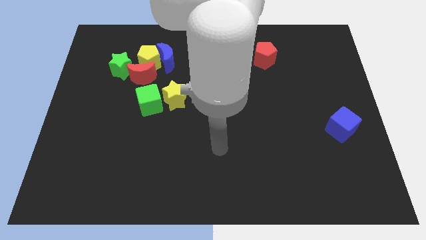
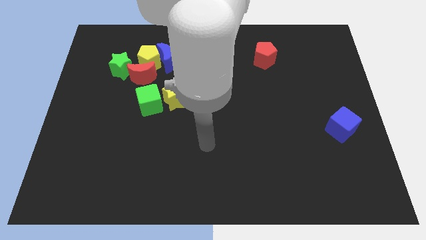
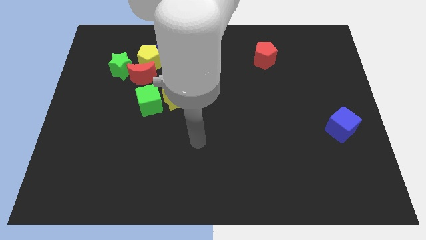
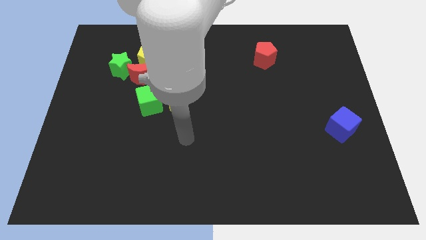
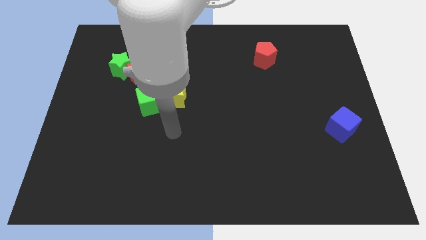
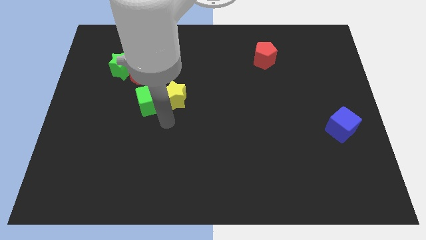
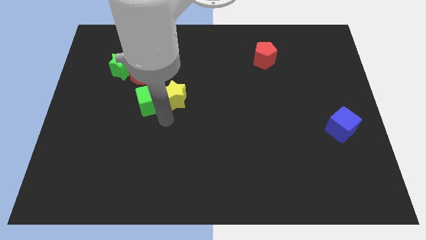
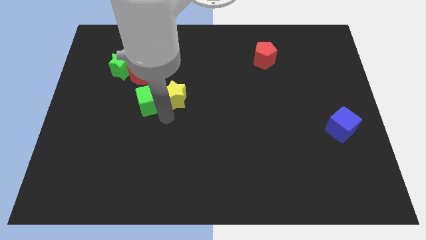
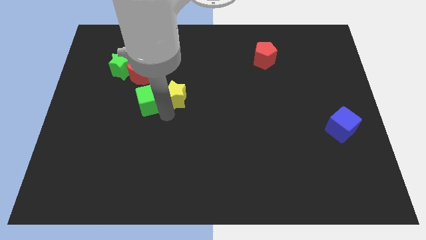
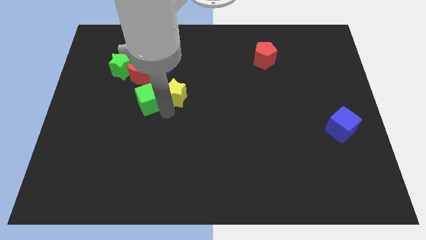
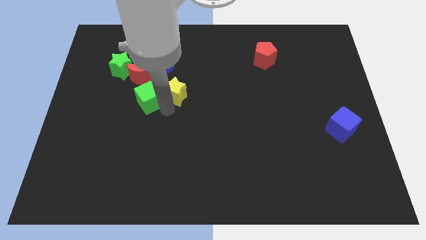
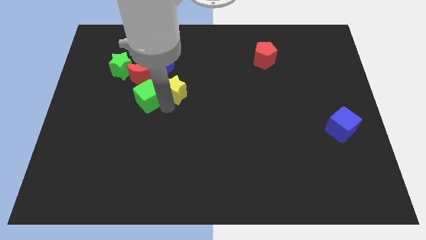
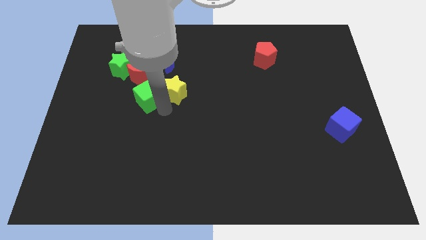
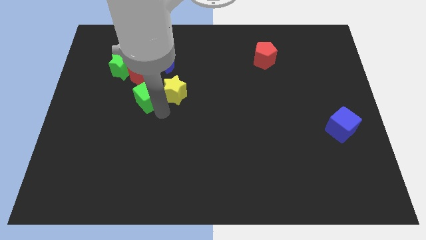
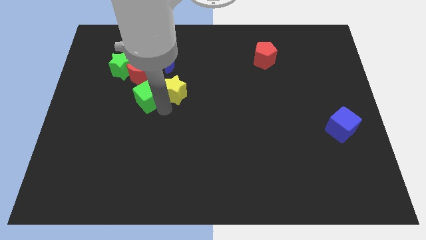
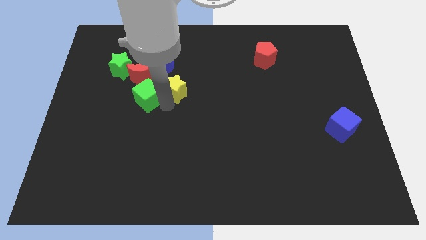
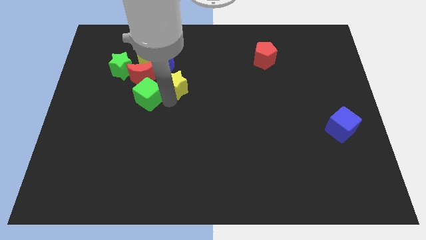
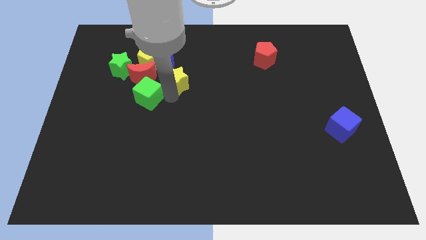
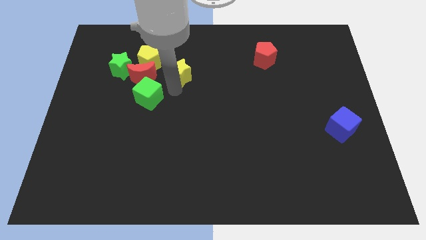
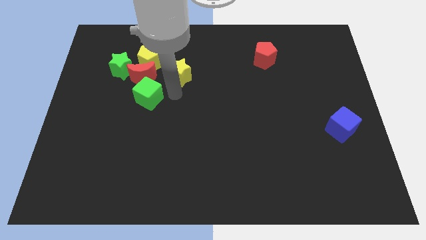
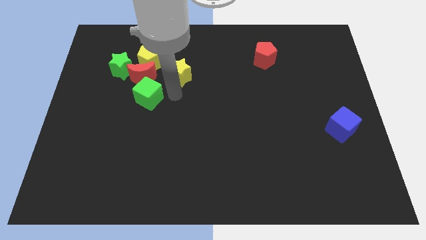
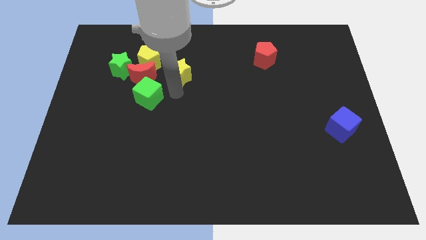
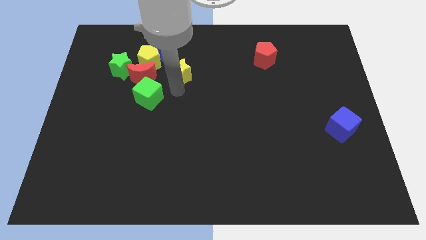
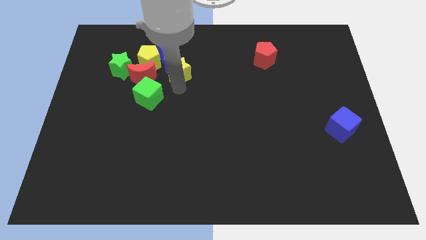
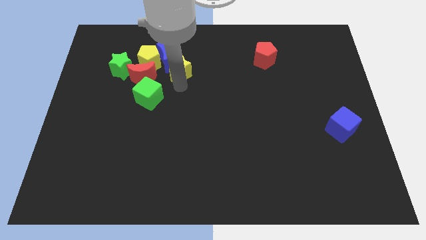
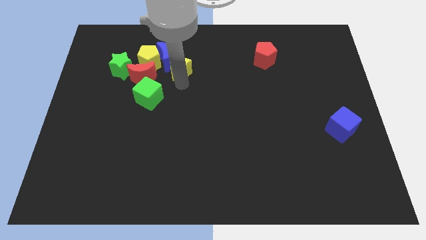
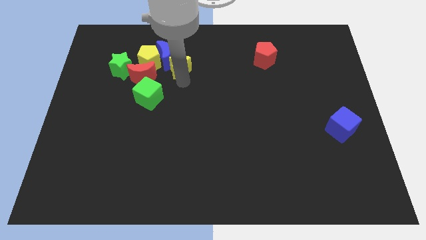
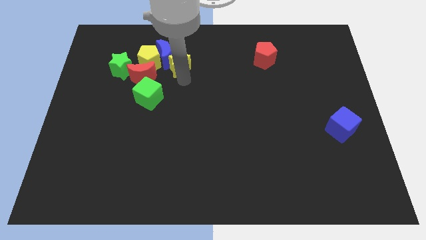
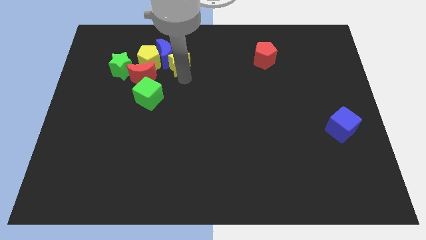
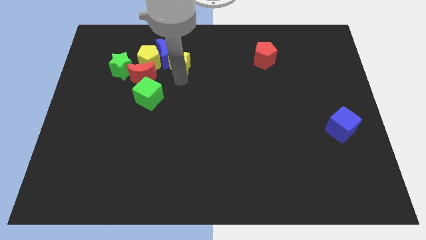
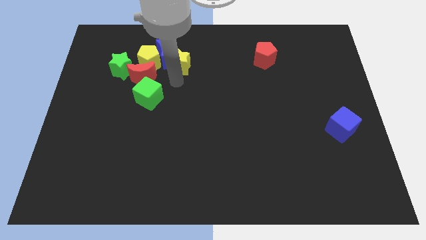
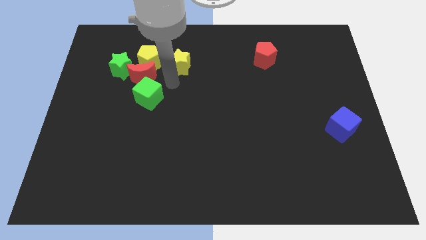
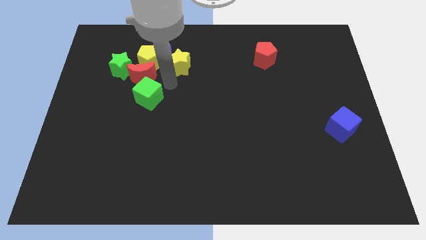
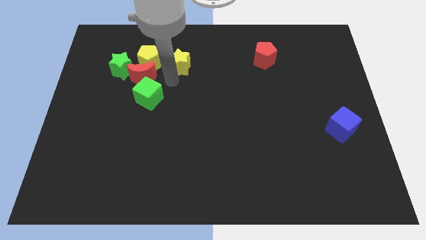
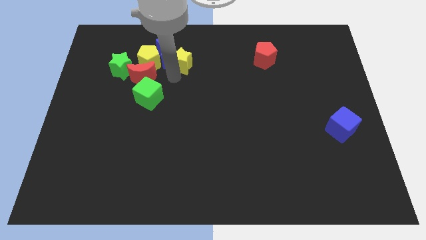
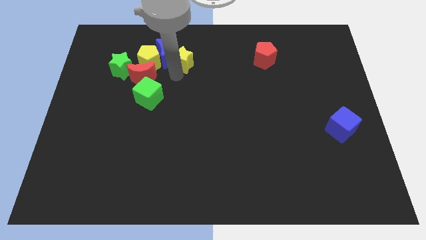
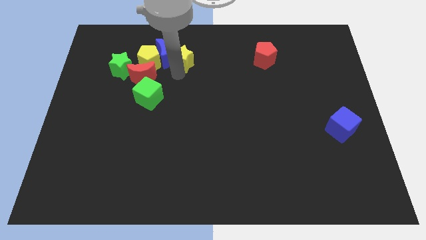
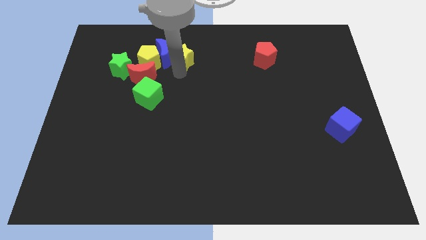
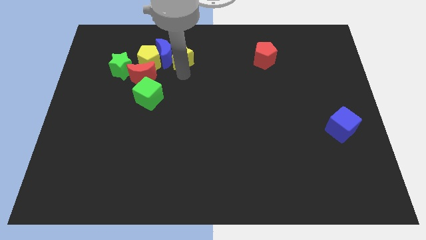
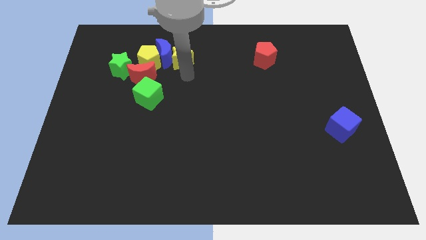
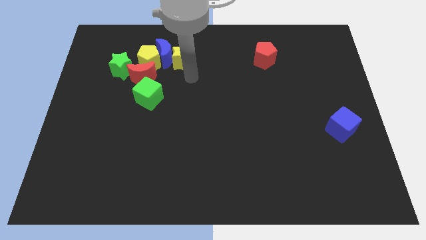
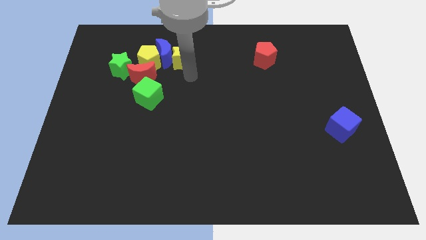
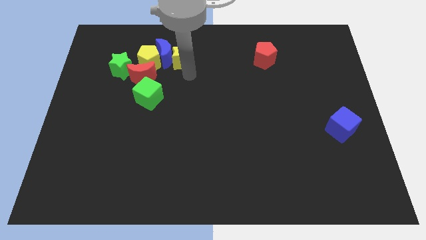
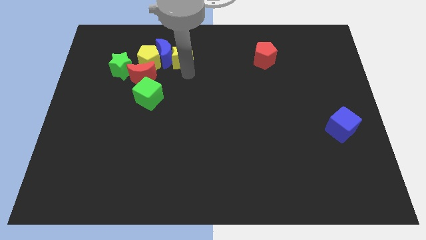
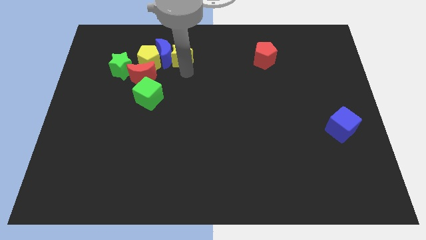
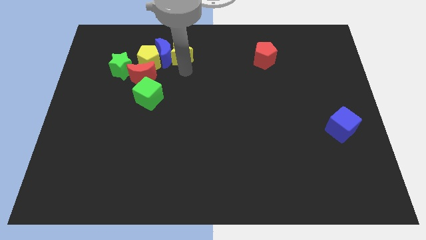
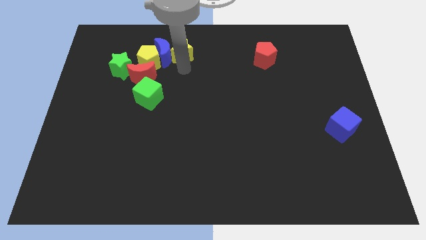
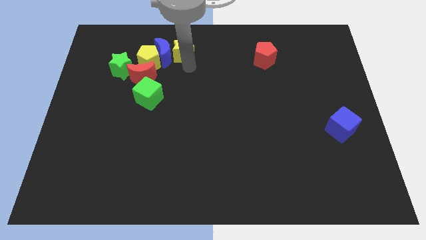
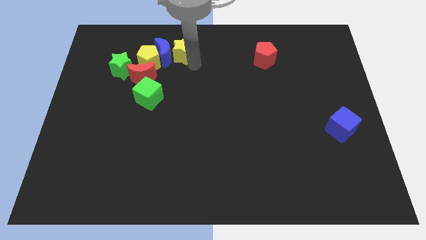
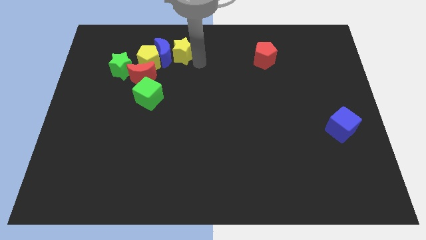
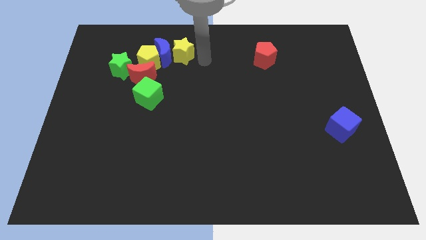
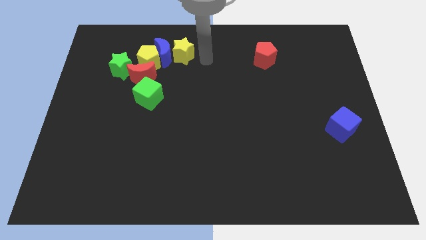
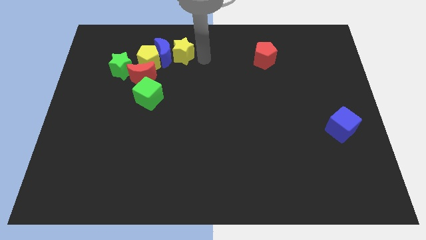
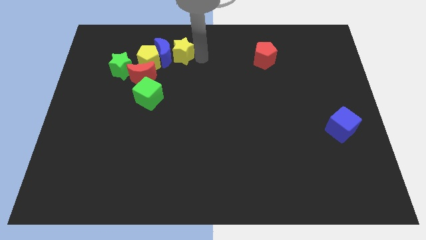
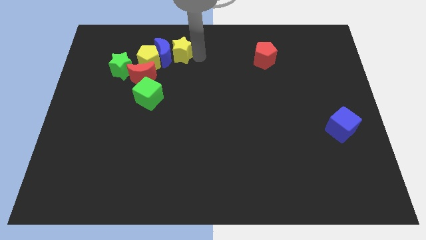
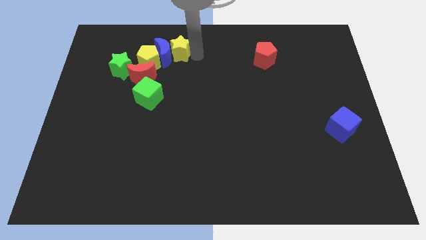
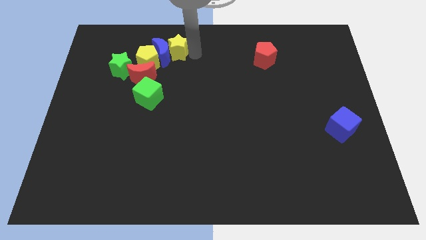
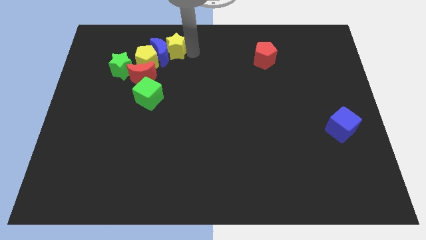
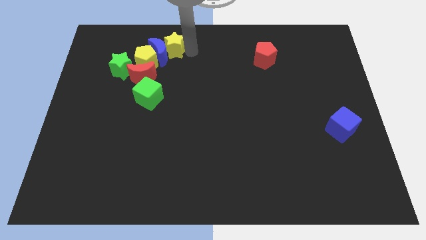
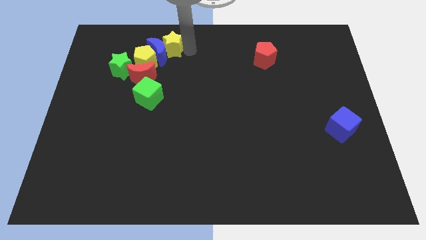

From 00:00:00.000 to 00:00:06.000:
slightly push the yellow star diagonally up and left

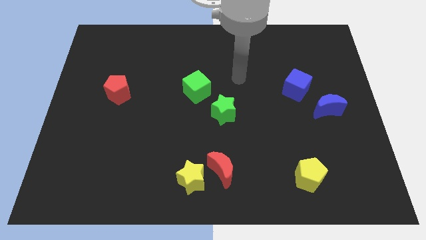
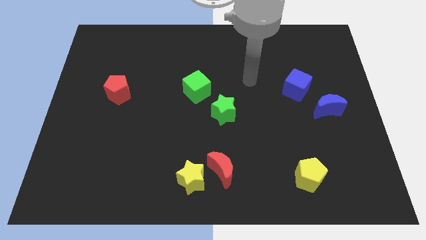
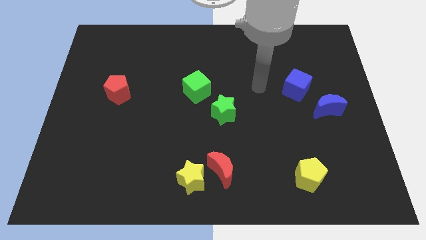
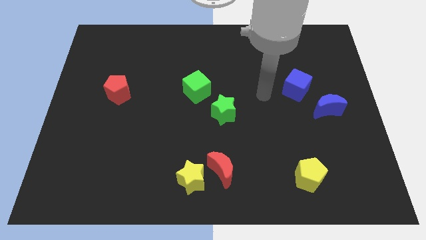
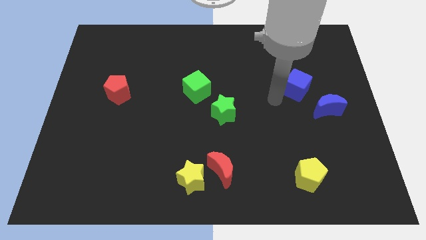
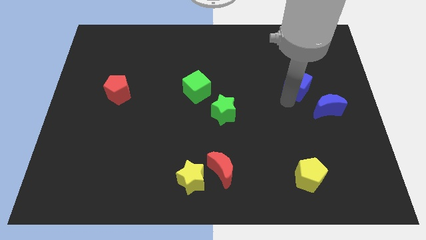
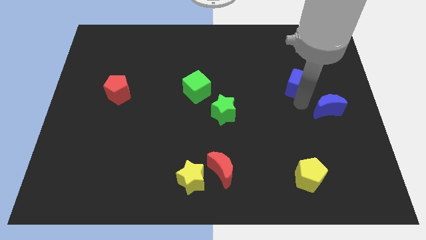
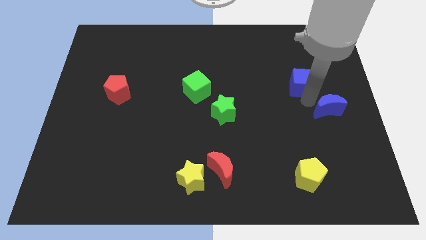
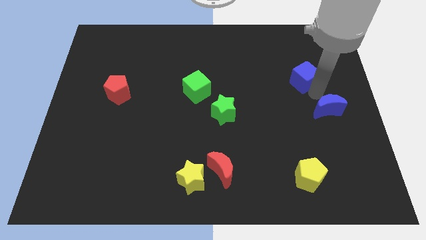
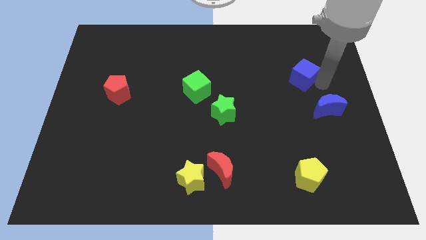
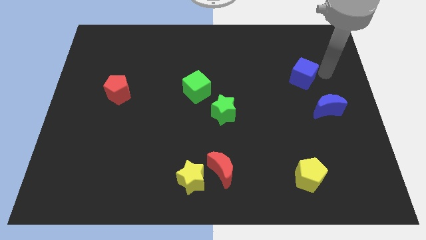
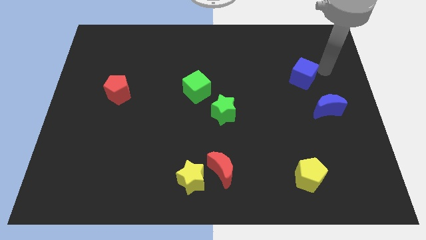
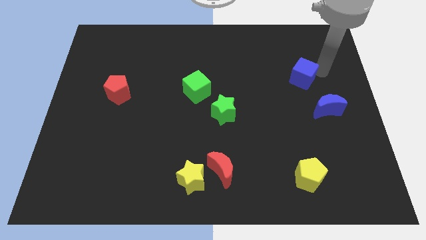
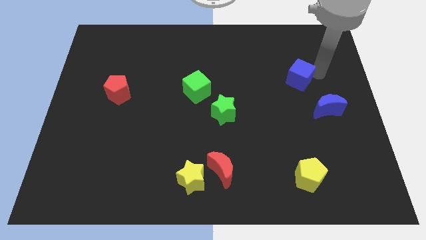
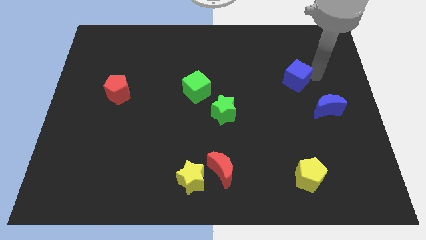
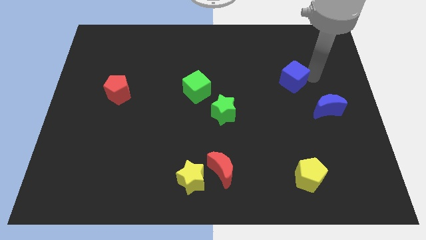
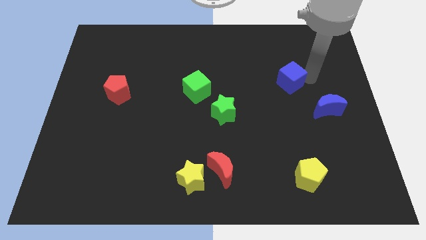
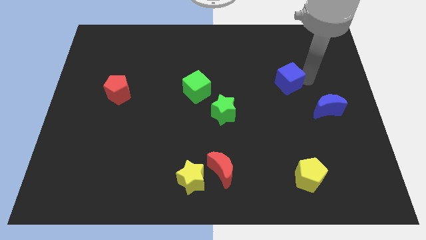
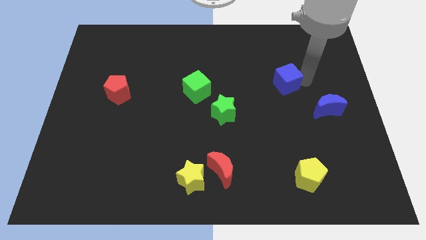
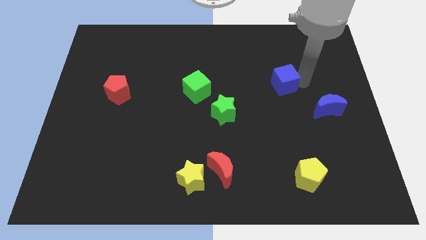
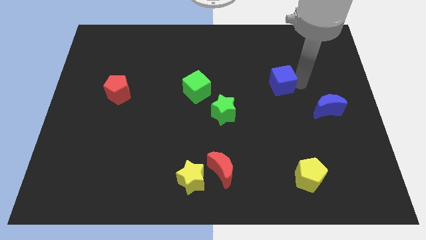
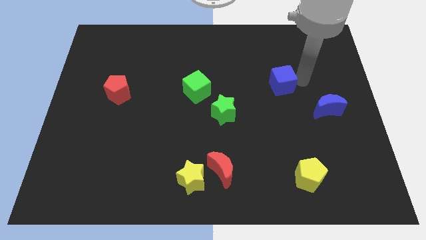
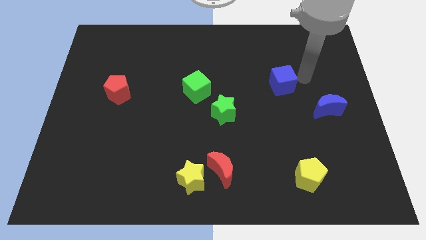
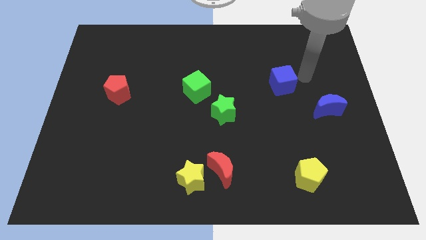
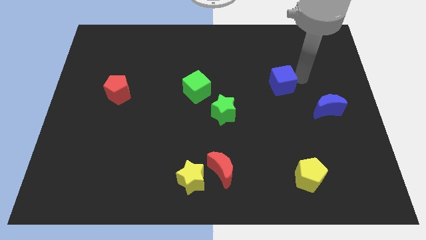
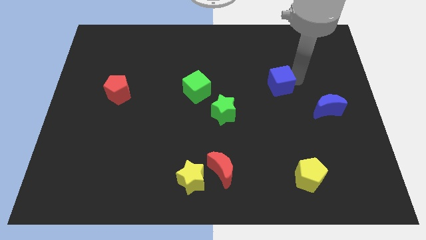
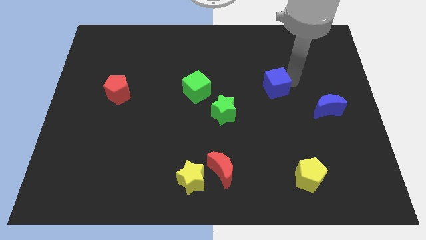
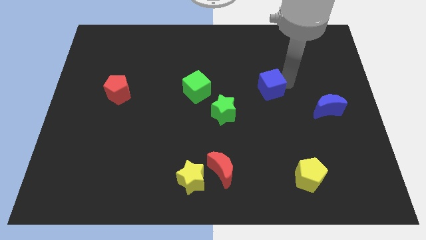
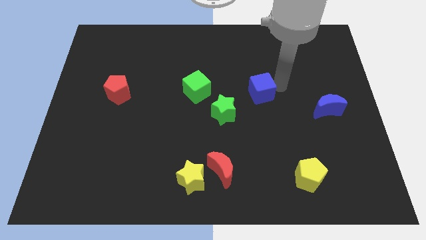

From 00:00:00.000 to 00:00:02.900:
slightly slide the blue cube to the left
